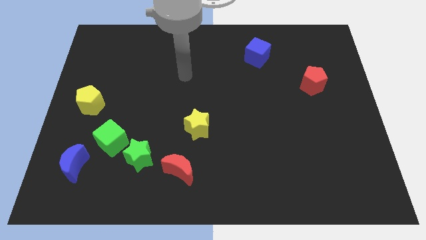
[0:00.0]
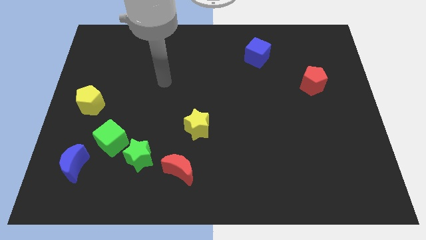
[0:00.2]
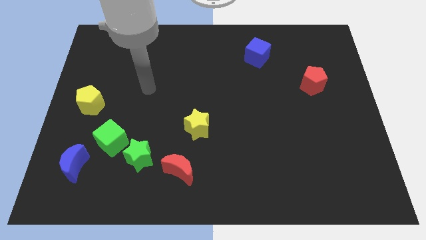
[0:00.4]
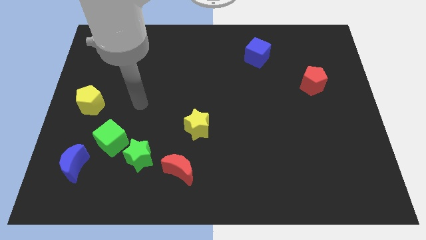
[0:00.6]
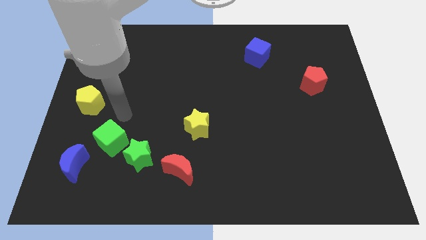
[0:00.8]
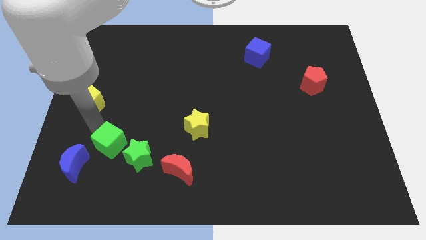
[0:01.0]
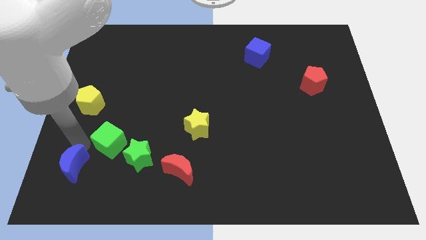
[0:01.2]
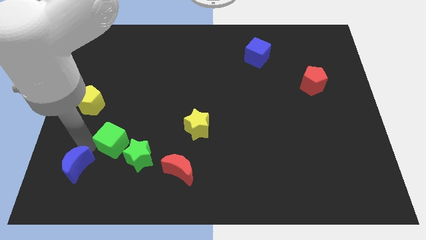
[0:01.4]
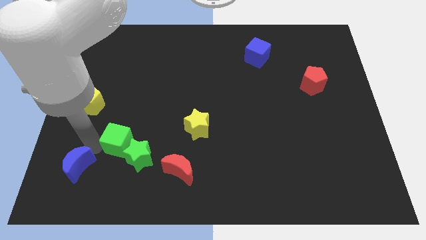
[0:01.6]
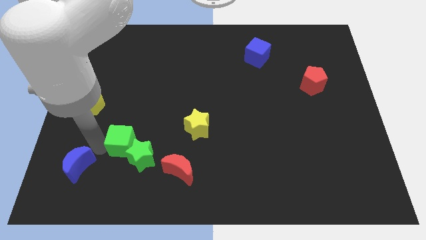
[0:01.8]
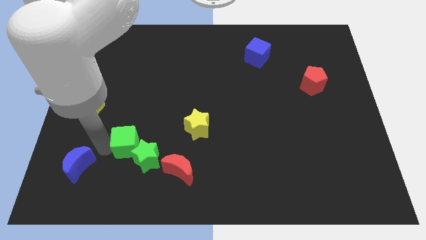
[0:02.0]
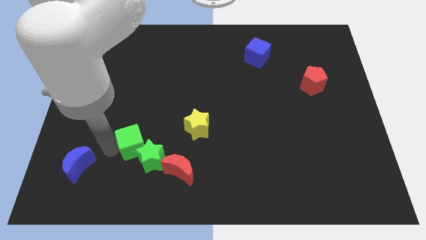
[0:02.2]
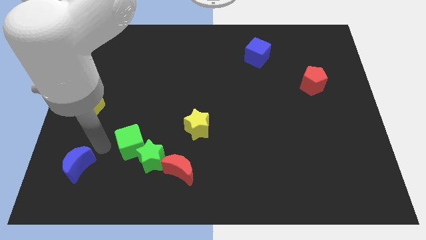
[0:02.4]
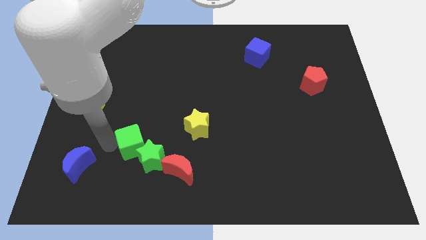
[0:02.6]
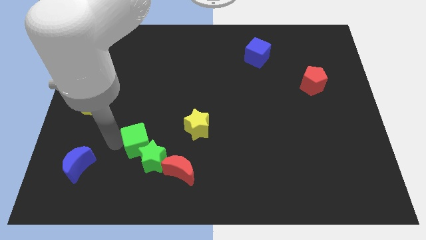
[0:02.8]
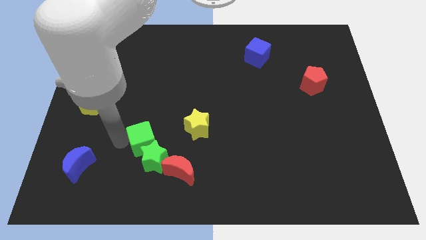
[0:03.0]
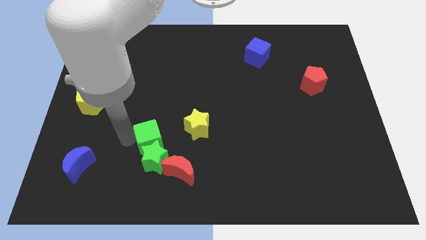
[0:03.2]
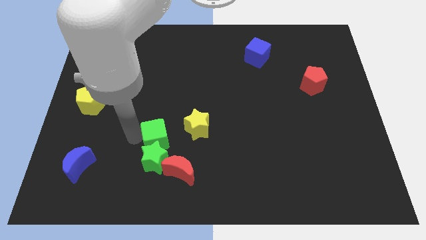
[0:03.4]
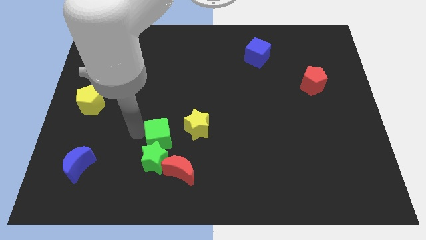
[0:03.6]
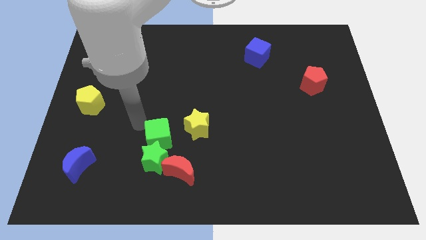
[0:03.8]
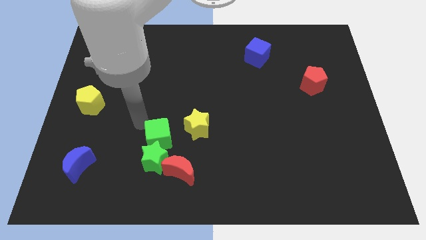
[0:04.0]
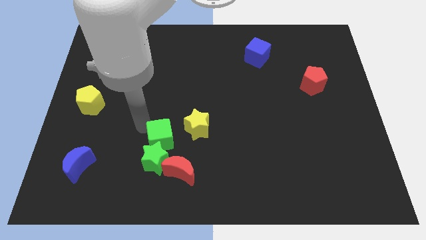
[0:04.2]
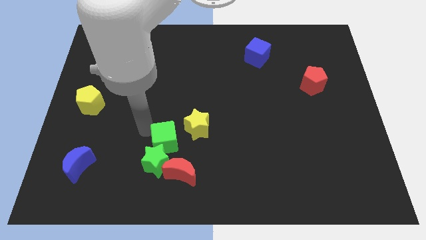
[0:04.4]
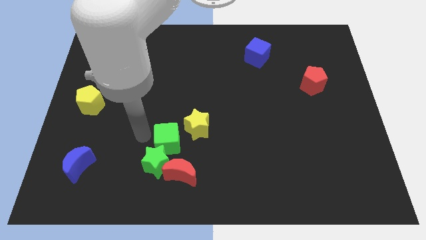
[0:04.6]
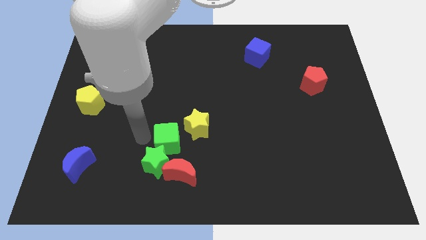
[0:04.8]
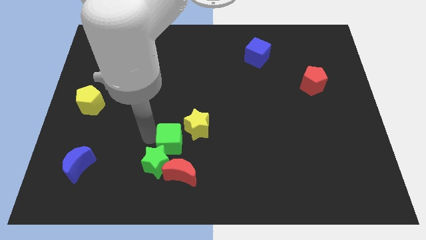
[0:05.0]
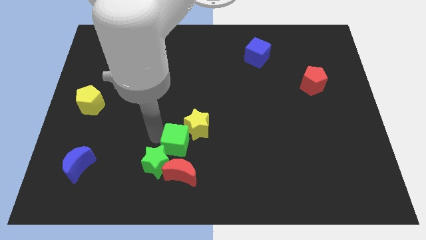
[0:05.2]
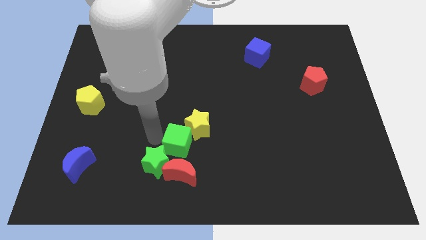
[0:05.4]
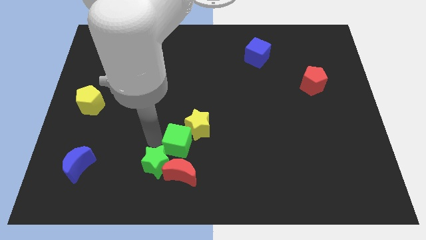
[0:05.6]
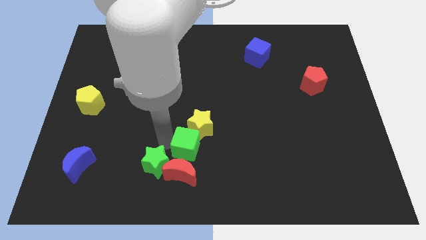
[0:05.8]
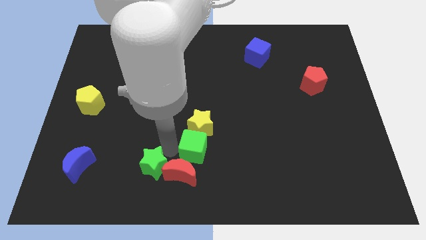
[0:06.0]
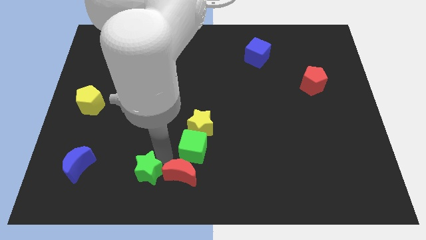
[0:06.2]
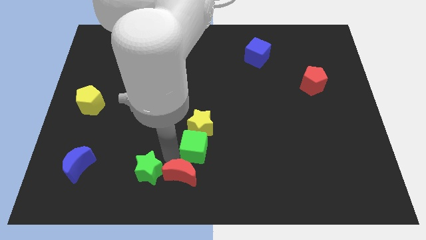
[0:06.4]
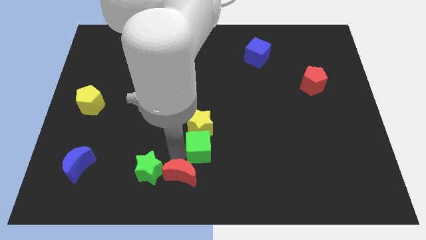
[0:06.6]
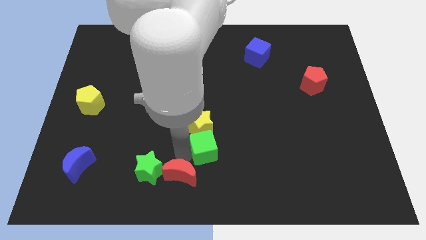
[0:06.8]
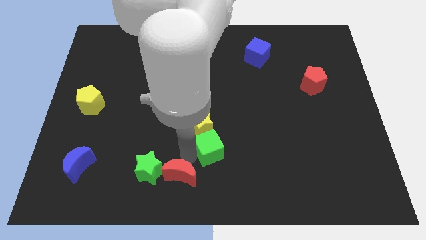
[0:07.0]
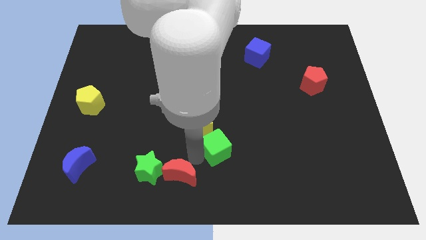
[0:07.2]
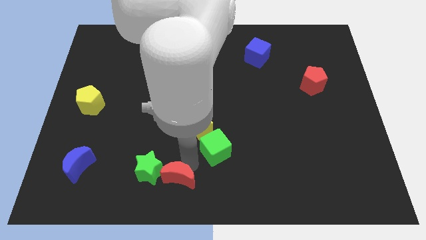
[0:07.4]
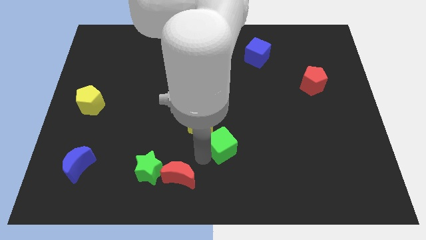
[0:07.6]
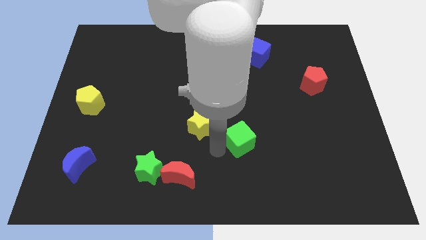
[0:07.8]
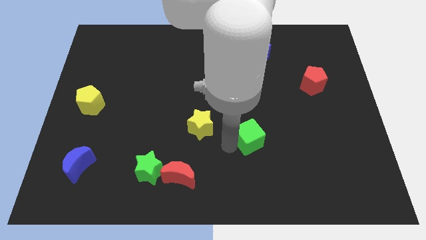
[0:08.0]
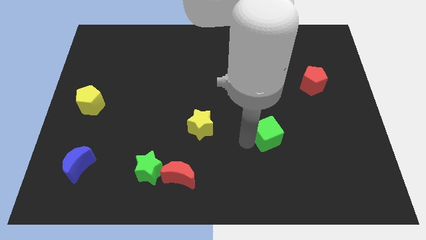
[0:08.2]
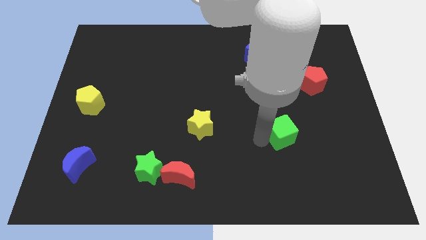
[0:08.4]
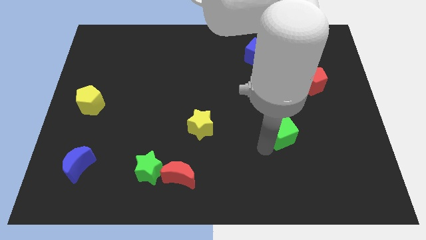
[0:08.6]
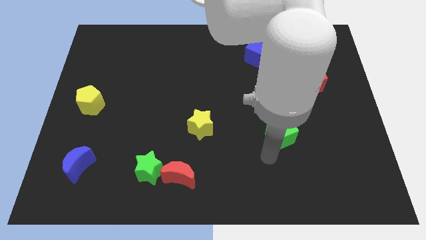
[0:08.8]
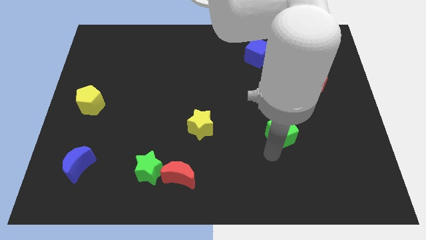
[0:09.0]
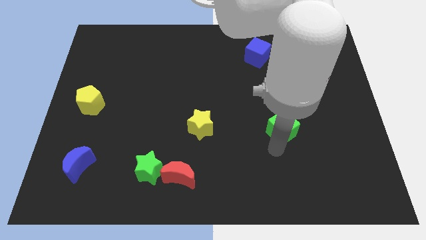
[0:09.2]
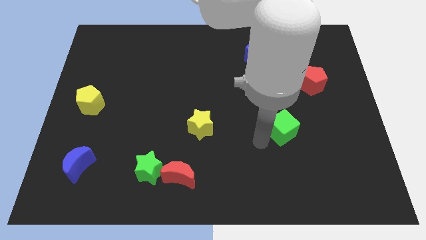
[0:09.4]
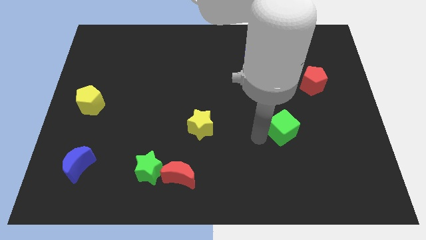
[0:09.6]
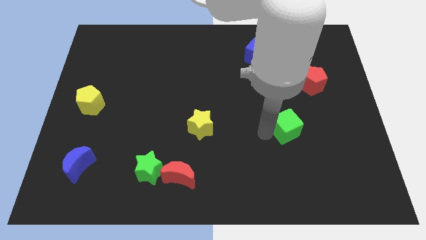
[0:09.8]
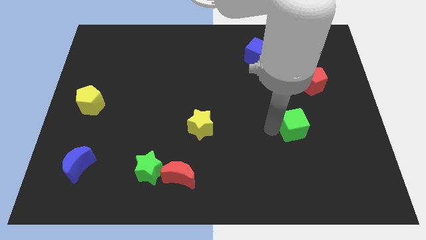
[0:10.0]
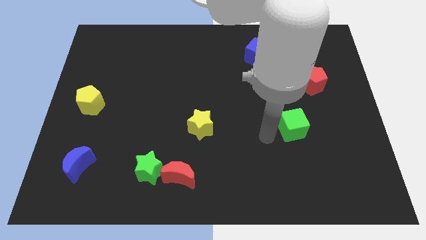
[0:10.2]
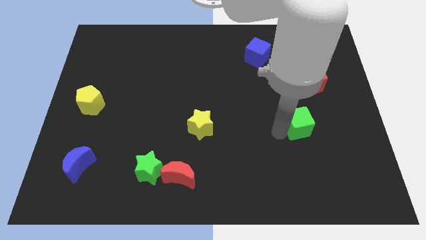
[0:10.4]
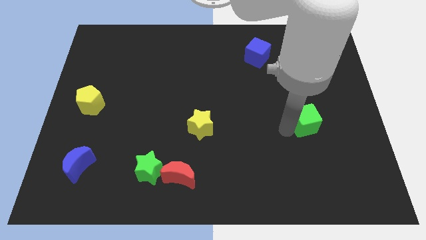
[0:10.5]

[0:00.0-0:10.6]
slide the green cube below the red pentagon

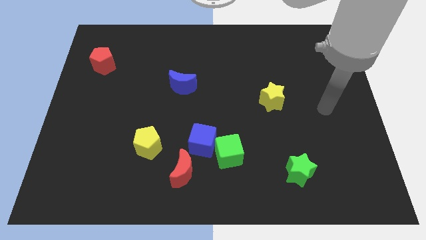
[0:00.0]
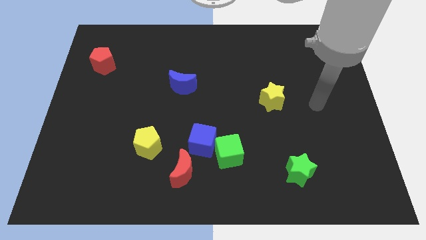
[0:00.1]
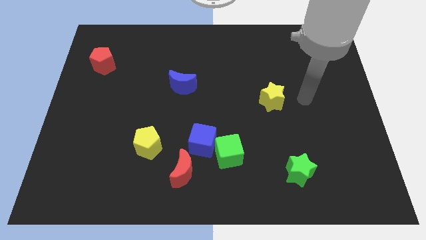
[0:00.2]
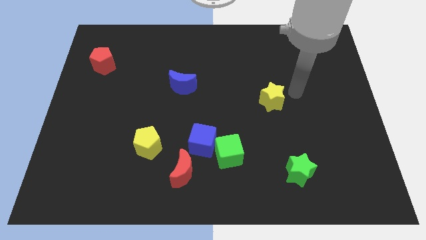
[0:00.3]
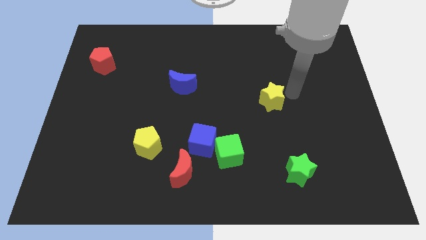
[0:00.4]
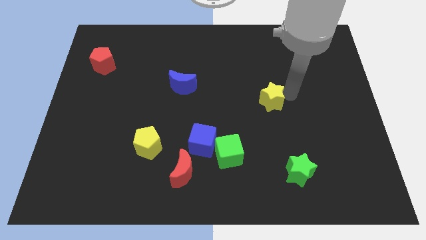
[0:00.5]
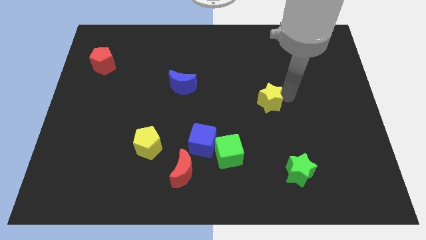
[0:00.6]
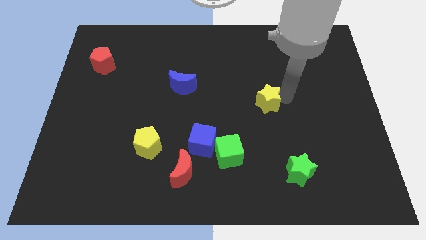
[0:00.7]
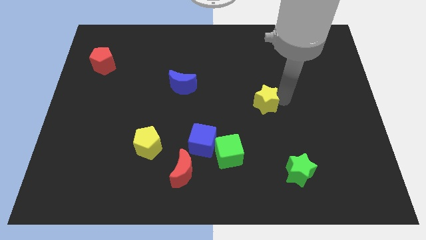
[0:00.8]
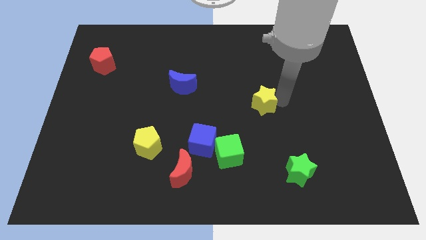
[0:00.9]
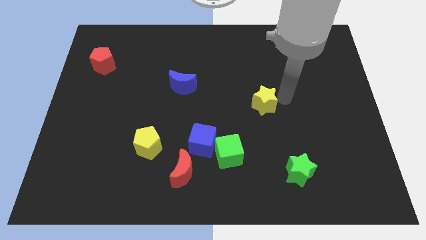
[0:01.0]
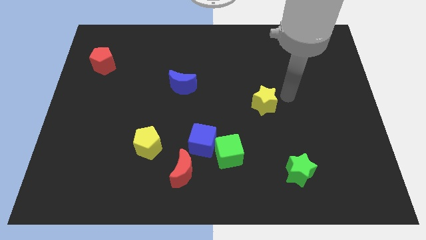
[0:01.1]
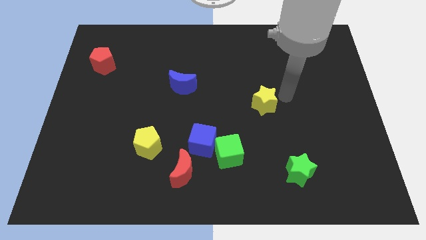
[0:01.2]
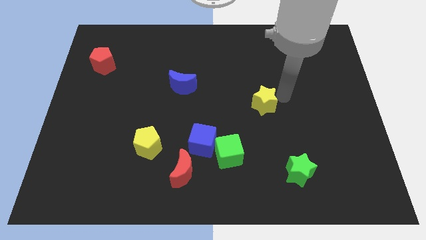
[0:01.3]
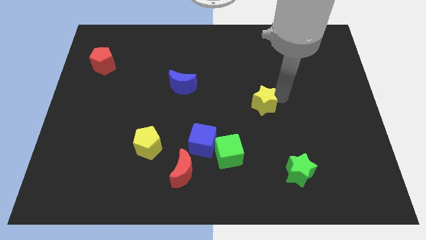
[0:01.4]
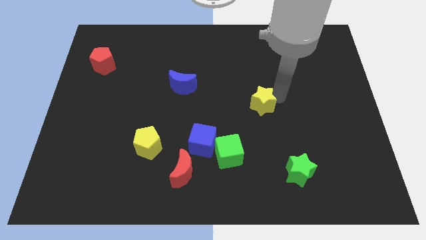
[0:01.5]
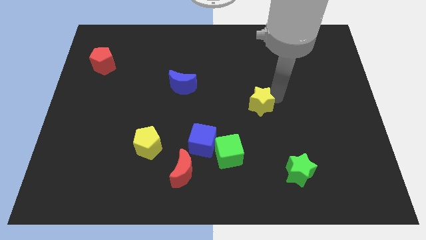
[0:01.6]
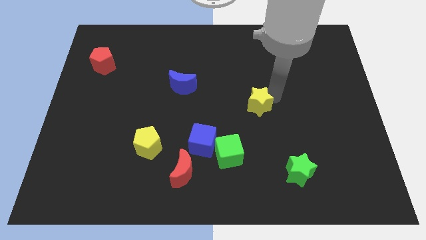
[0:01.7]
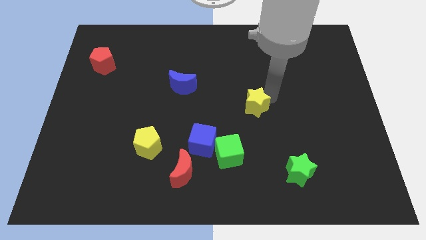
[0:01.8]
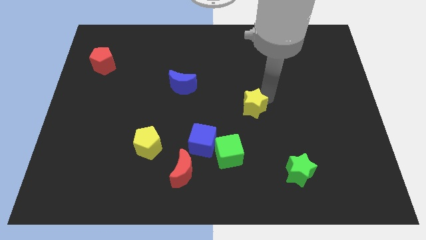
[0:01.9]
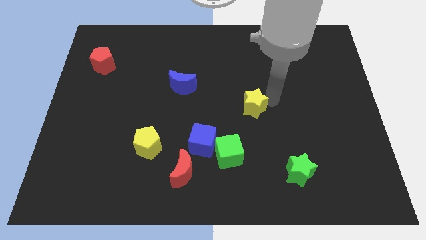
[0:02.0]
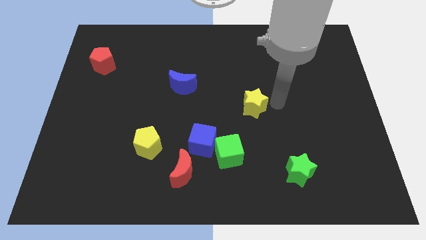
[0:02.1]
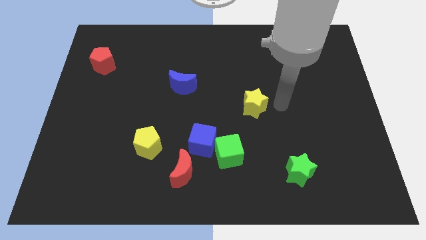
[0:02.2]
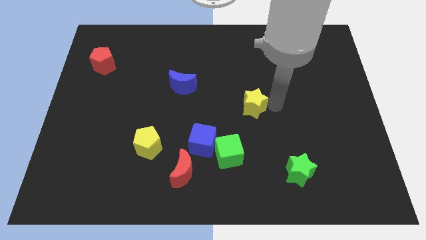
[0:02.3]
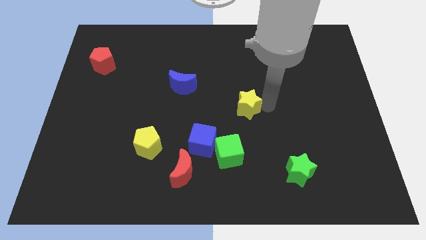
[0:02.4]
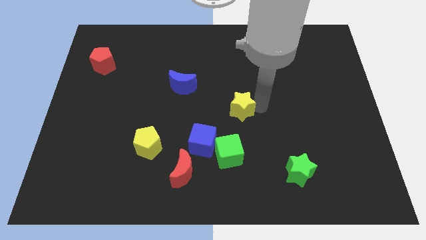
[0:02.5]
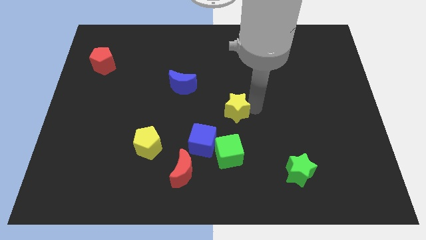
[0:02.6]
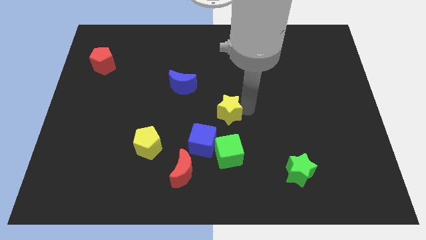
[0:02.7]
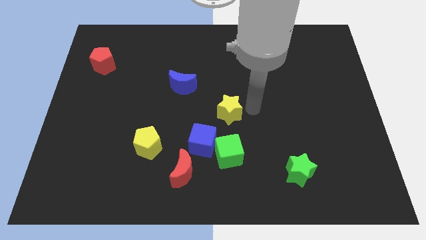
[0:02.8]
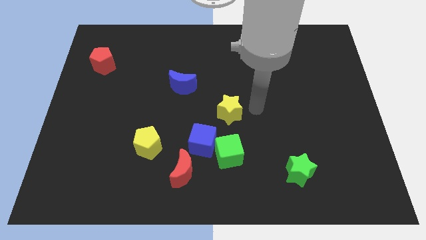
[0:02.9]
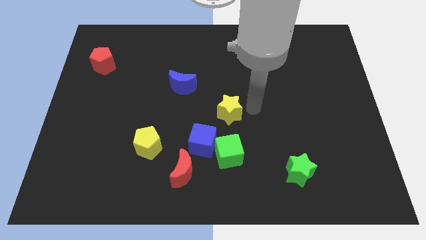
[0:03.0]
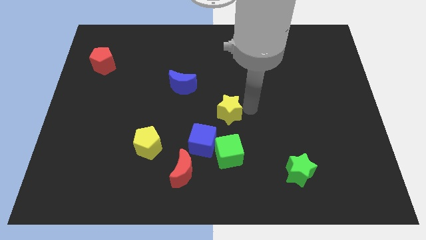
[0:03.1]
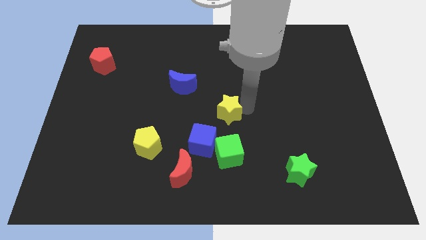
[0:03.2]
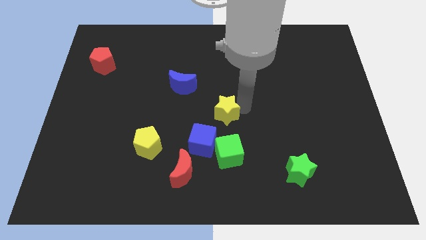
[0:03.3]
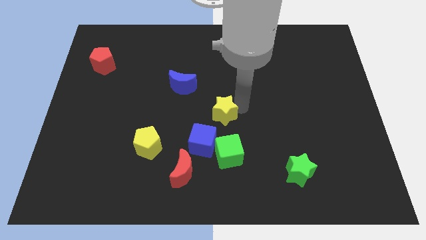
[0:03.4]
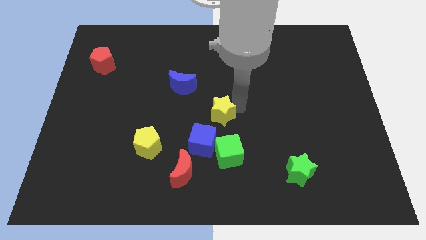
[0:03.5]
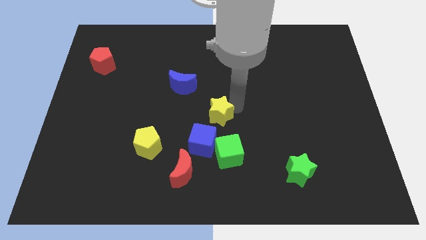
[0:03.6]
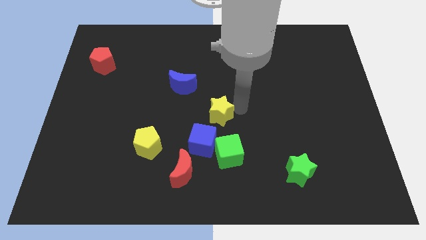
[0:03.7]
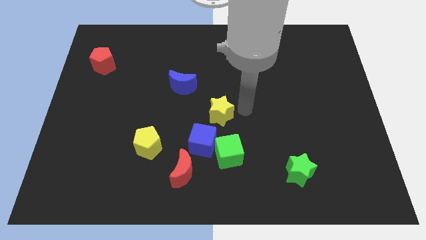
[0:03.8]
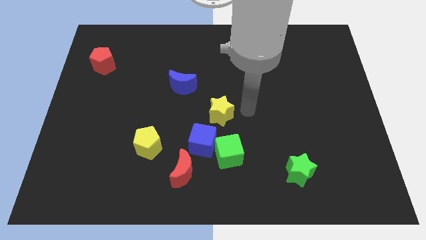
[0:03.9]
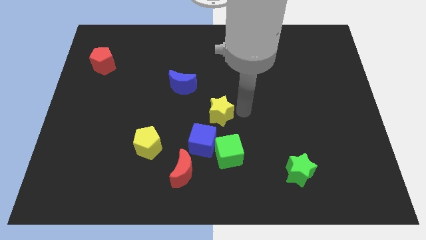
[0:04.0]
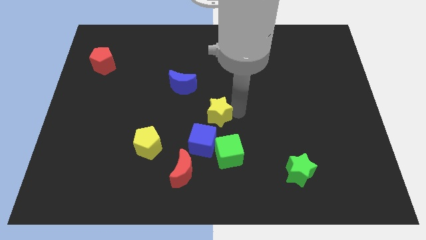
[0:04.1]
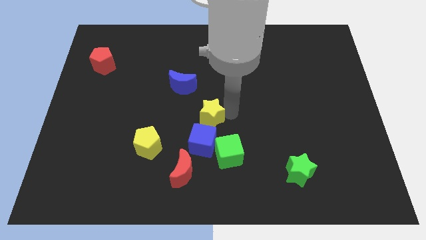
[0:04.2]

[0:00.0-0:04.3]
move the yellow star diagonally up and to the left of the green cube
